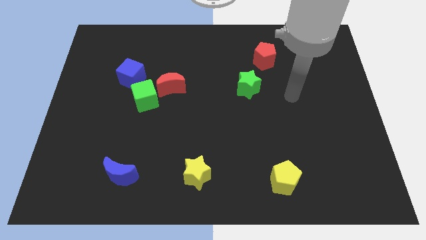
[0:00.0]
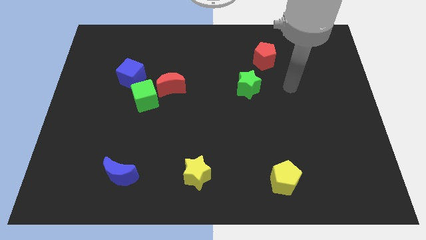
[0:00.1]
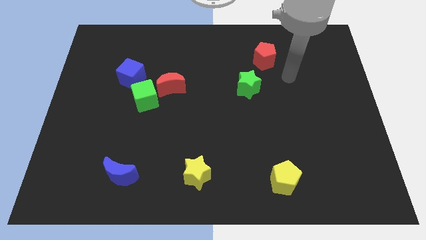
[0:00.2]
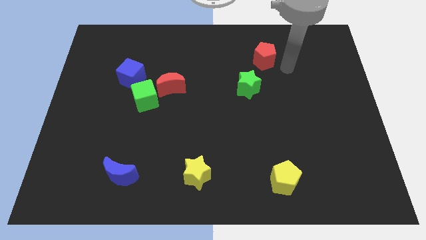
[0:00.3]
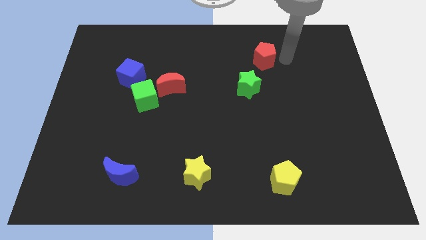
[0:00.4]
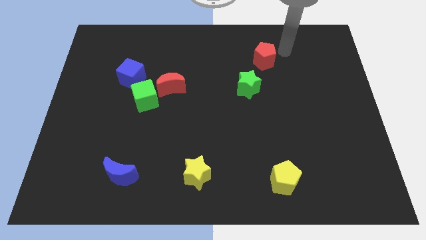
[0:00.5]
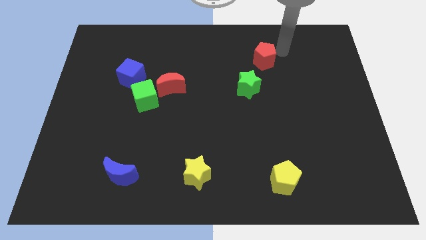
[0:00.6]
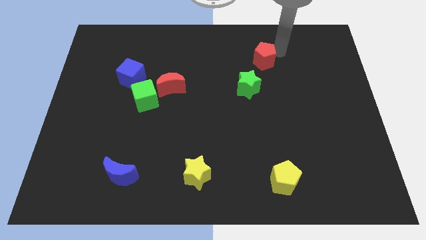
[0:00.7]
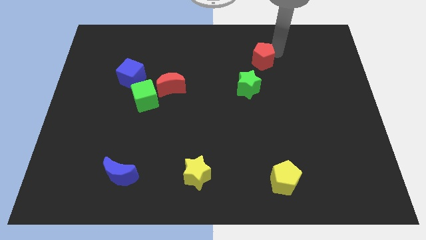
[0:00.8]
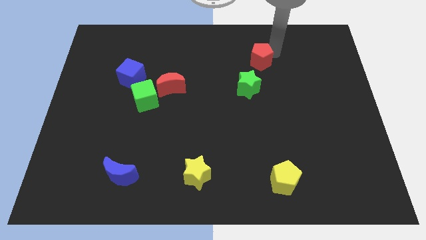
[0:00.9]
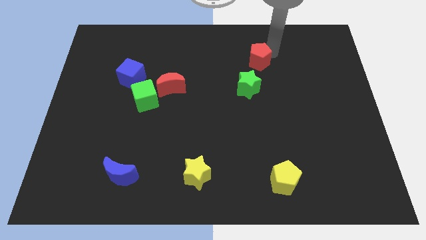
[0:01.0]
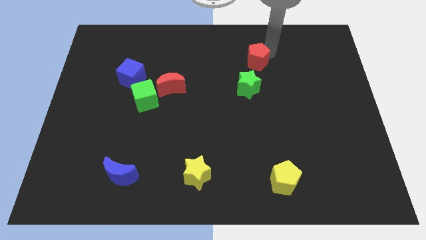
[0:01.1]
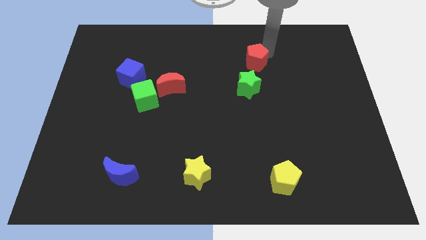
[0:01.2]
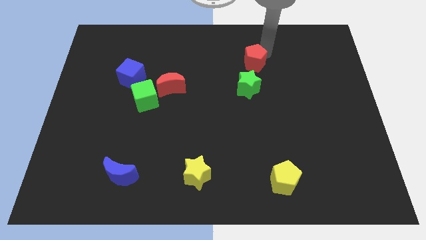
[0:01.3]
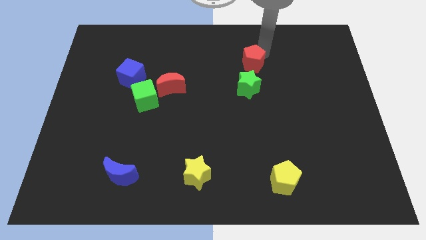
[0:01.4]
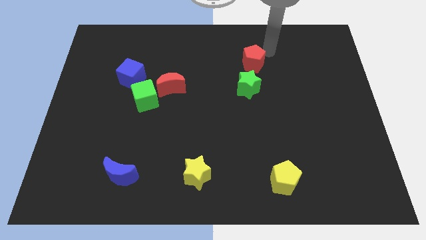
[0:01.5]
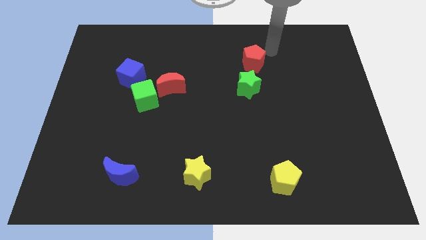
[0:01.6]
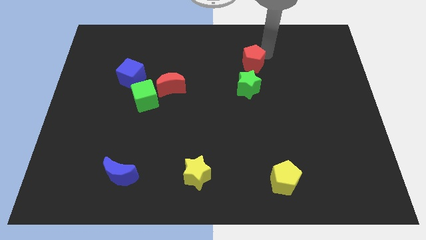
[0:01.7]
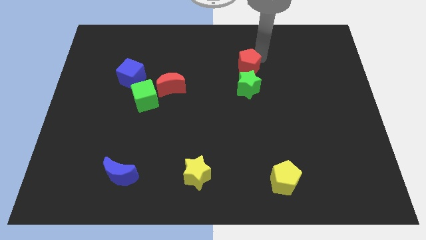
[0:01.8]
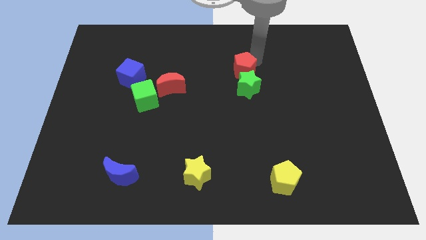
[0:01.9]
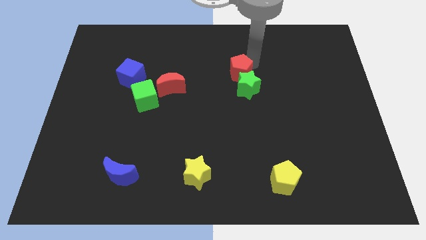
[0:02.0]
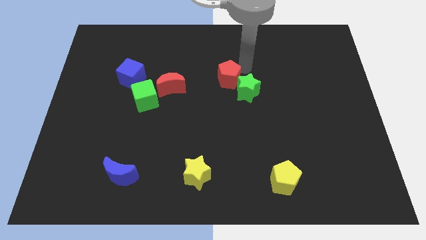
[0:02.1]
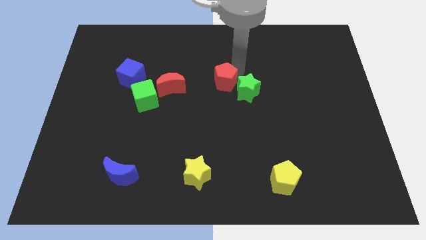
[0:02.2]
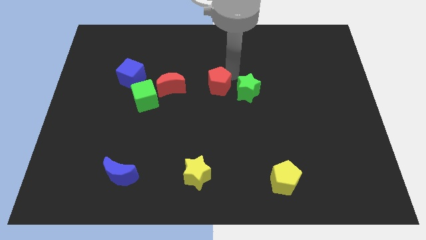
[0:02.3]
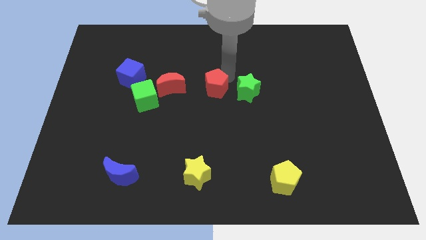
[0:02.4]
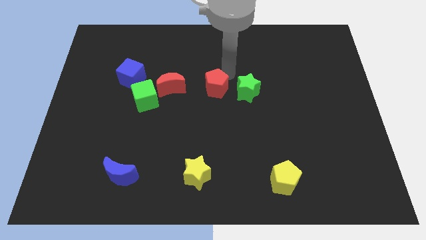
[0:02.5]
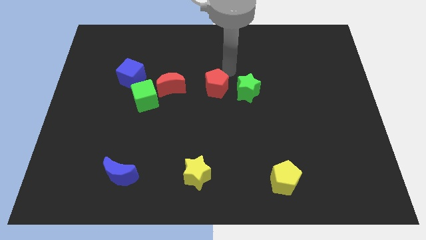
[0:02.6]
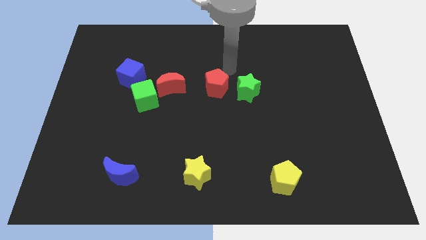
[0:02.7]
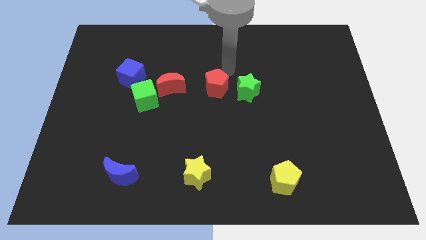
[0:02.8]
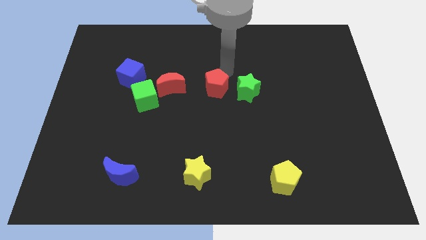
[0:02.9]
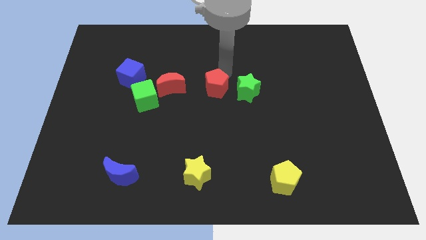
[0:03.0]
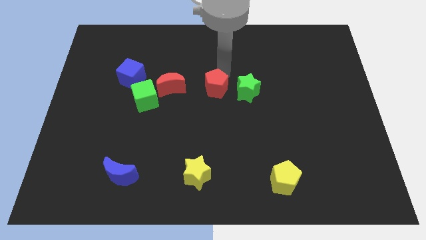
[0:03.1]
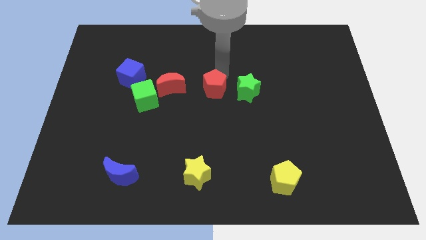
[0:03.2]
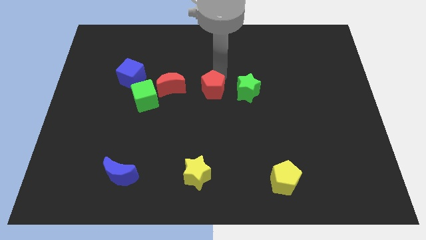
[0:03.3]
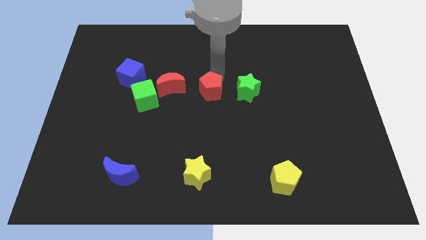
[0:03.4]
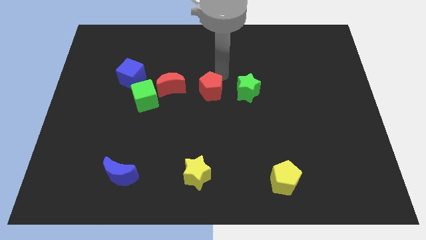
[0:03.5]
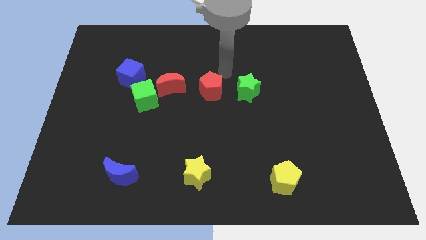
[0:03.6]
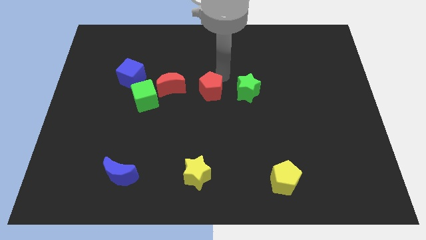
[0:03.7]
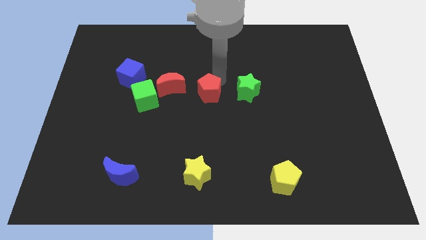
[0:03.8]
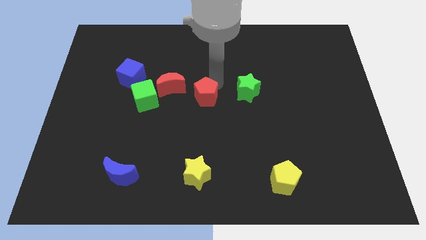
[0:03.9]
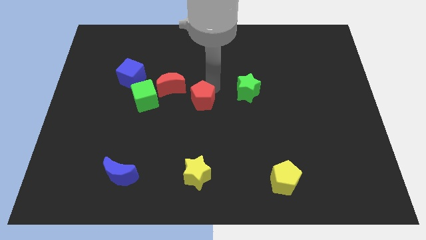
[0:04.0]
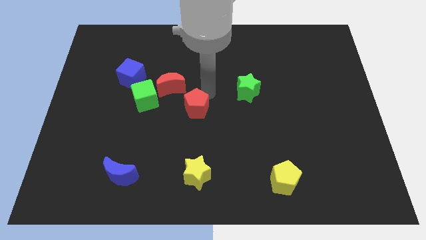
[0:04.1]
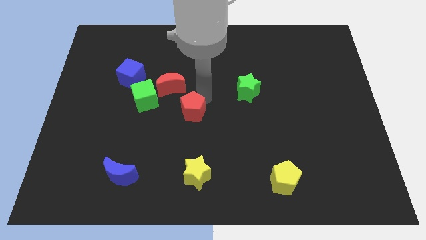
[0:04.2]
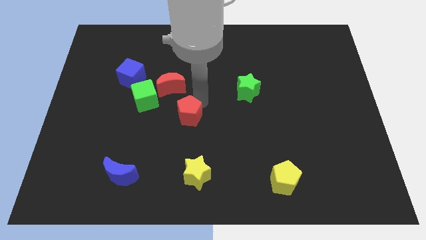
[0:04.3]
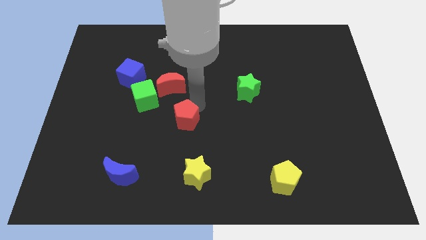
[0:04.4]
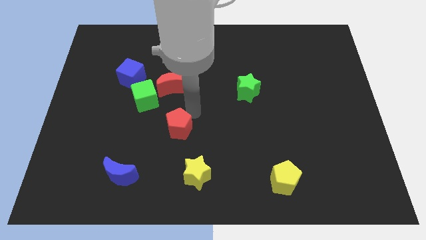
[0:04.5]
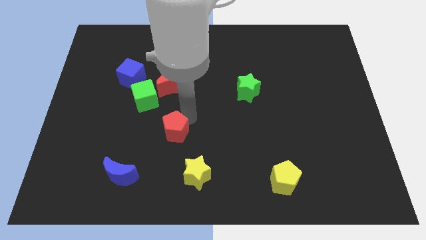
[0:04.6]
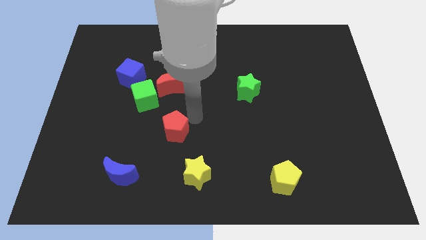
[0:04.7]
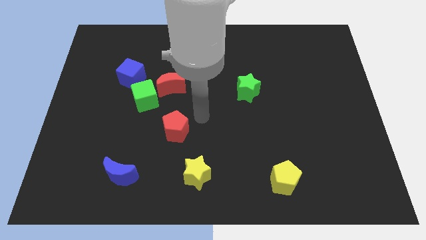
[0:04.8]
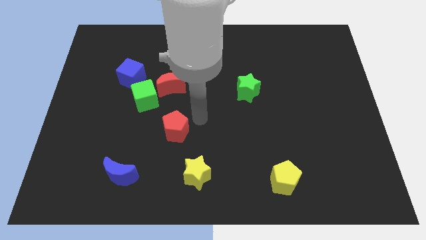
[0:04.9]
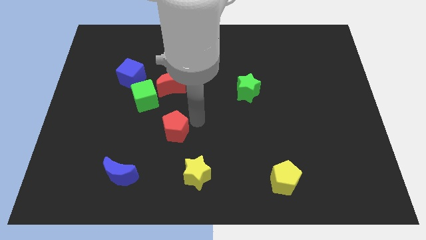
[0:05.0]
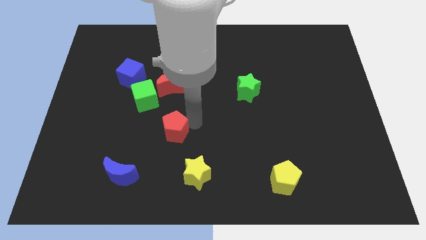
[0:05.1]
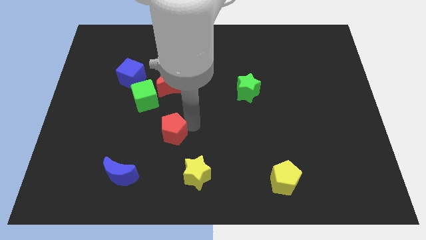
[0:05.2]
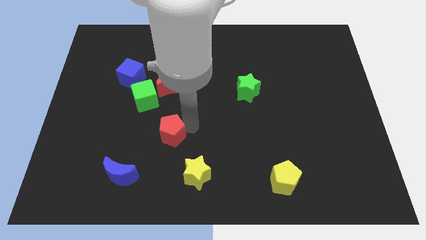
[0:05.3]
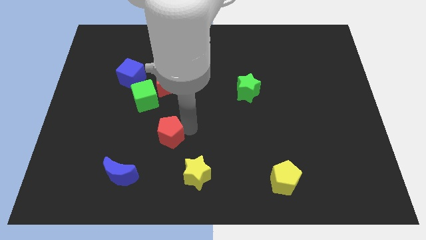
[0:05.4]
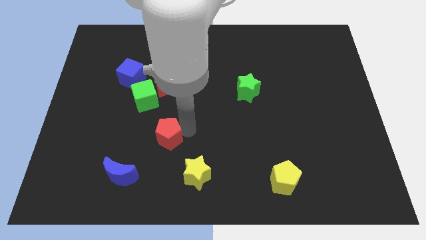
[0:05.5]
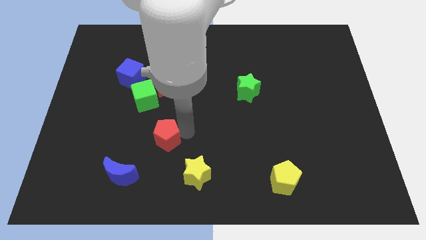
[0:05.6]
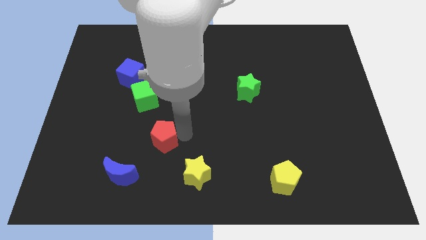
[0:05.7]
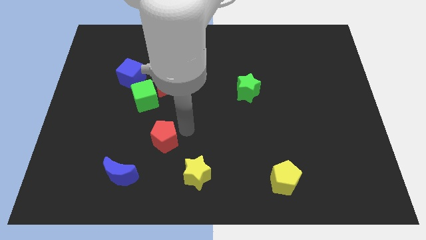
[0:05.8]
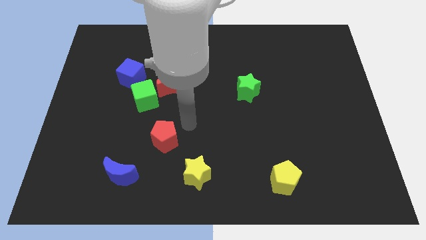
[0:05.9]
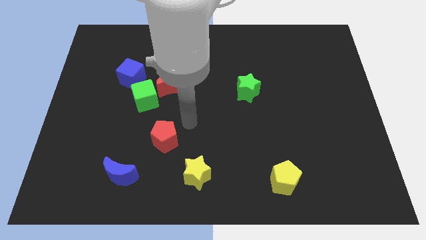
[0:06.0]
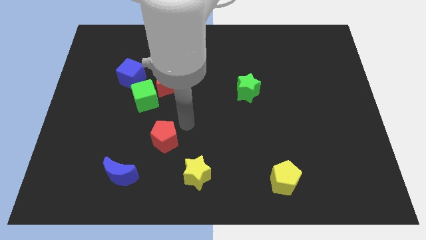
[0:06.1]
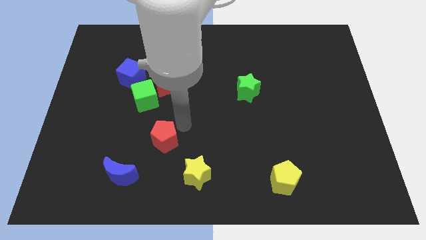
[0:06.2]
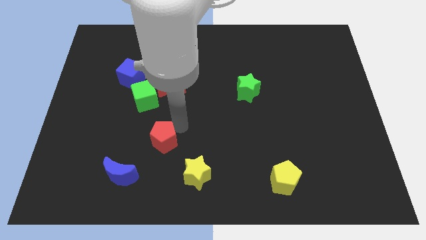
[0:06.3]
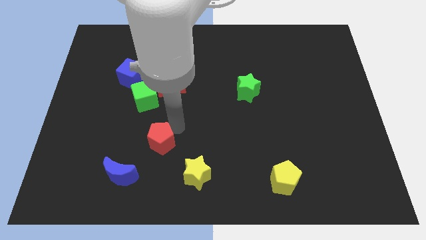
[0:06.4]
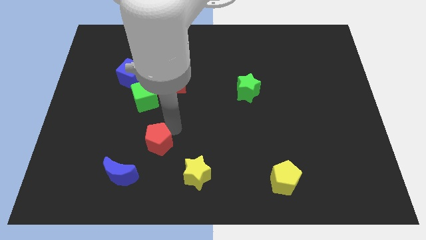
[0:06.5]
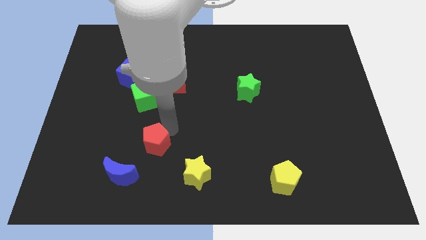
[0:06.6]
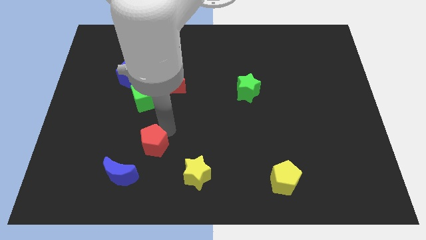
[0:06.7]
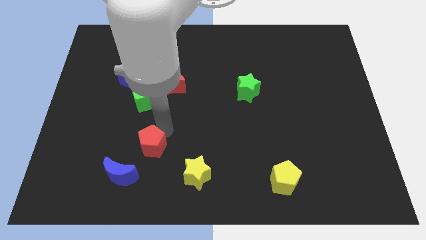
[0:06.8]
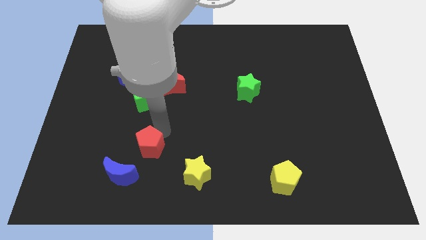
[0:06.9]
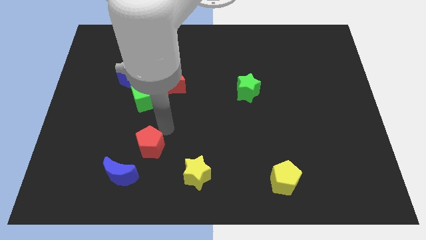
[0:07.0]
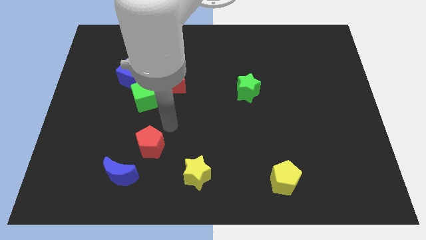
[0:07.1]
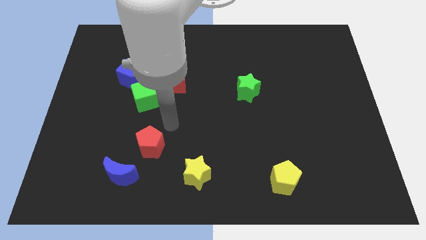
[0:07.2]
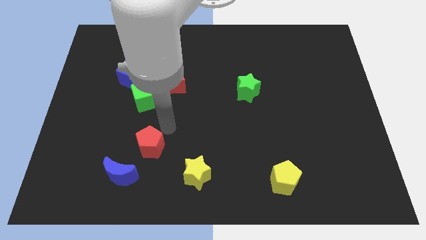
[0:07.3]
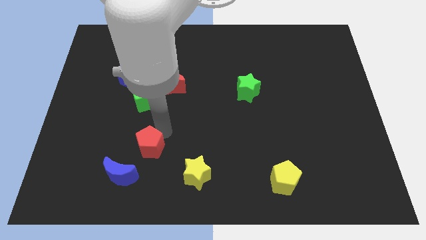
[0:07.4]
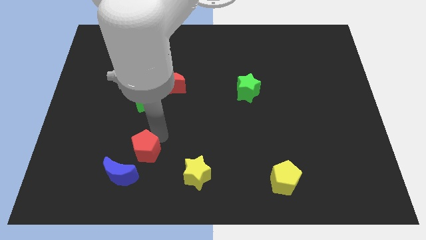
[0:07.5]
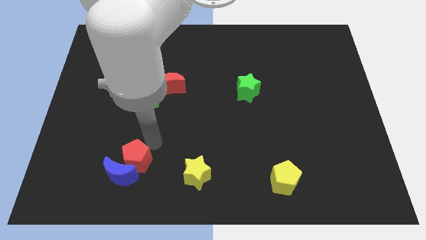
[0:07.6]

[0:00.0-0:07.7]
push the red pentagon close to the blue moon

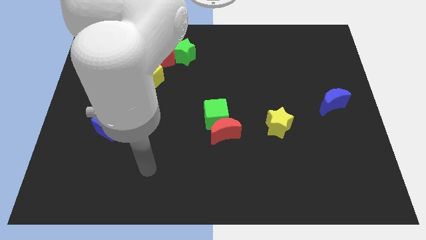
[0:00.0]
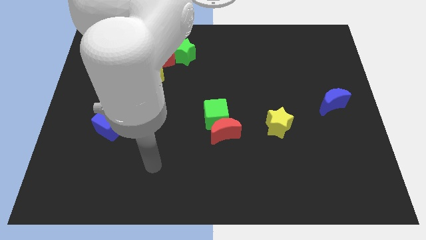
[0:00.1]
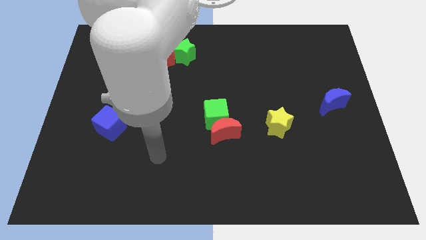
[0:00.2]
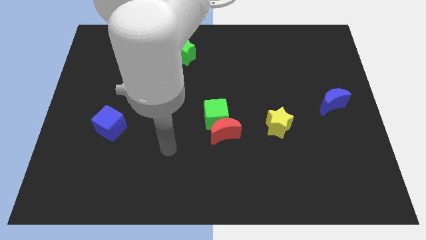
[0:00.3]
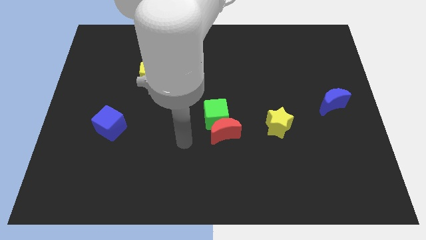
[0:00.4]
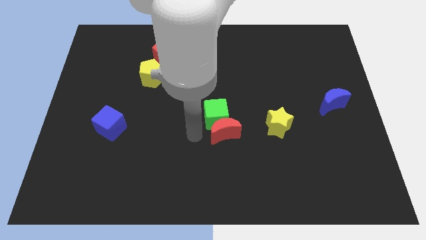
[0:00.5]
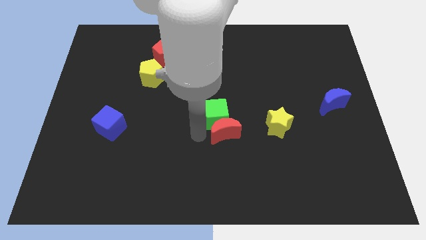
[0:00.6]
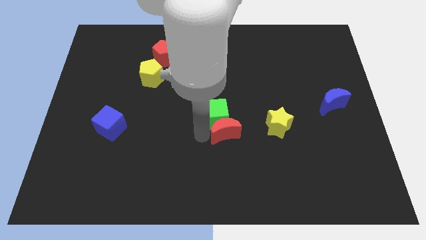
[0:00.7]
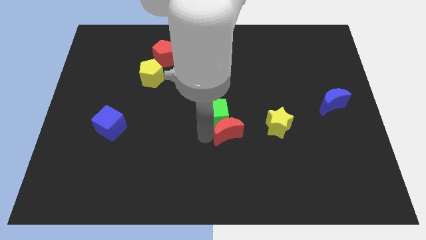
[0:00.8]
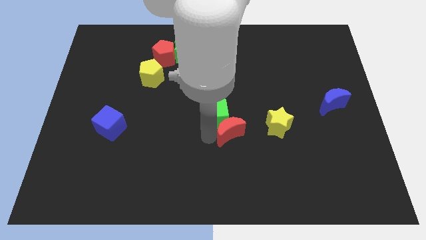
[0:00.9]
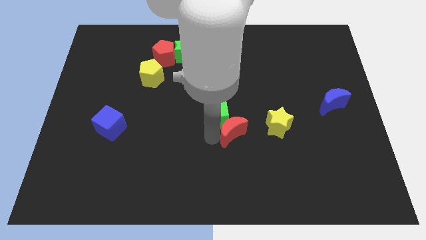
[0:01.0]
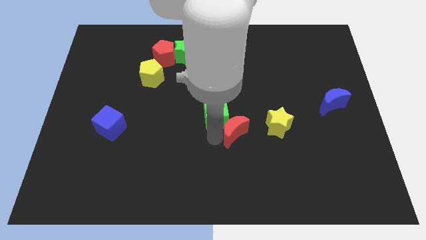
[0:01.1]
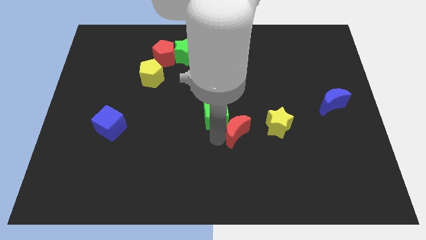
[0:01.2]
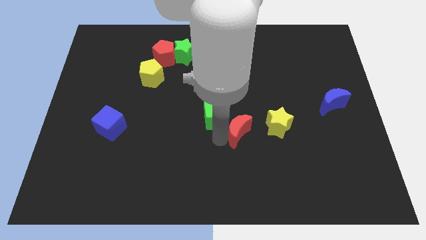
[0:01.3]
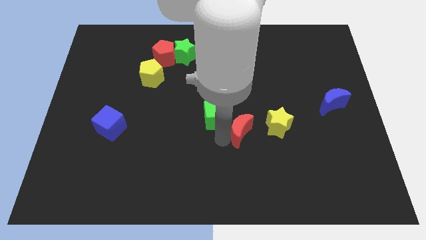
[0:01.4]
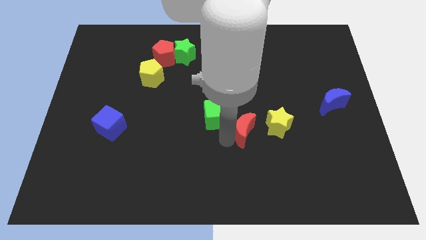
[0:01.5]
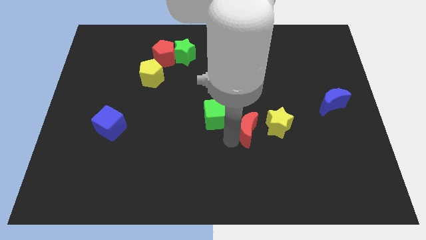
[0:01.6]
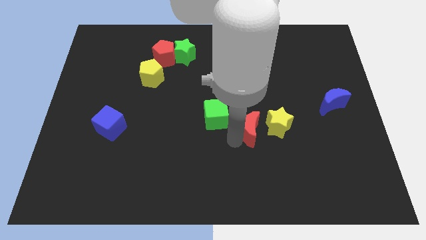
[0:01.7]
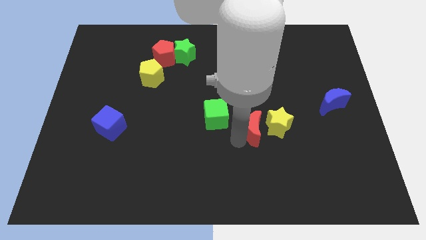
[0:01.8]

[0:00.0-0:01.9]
put the red moon next to the yellow star
